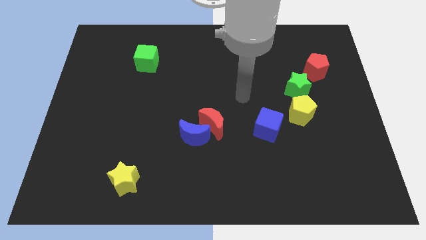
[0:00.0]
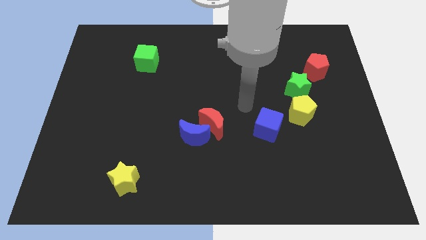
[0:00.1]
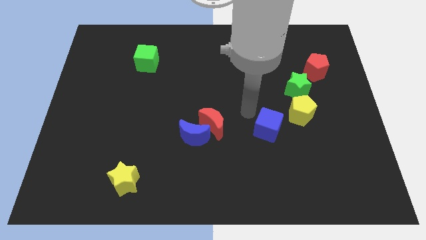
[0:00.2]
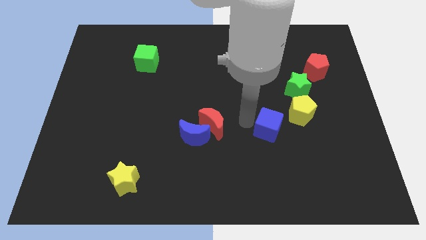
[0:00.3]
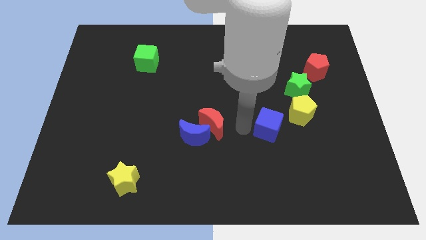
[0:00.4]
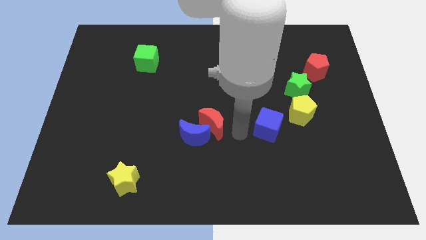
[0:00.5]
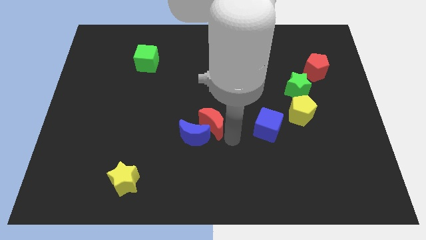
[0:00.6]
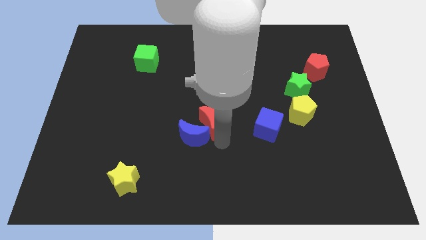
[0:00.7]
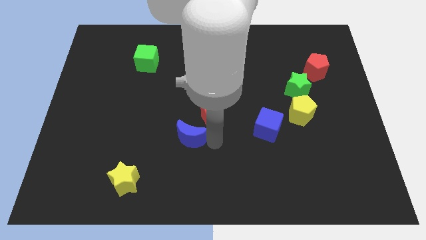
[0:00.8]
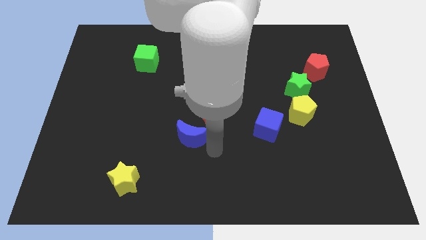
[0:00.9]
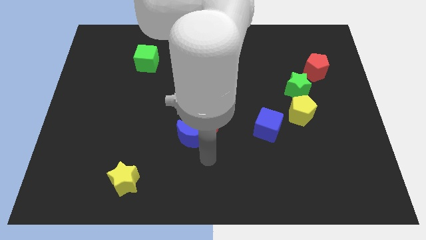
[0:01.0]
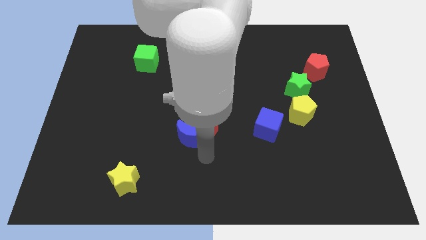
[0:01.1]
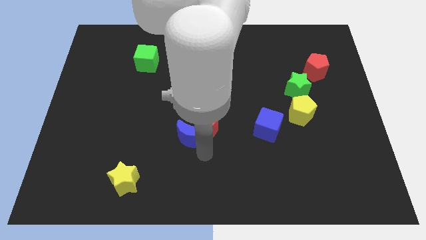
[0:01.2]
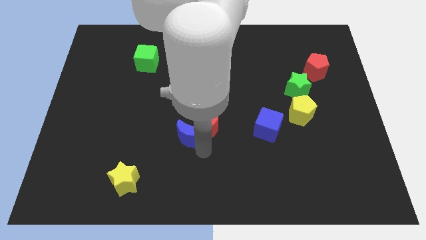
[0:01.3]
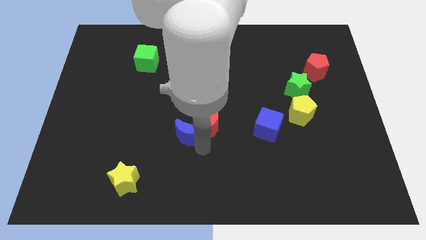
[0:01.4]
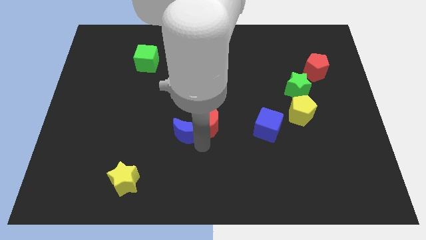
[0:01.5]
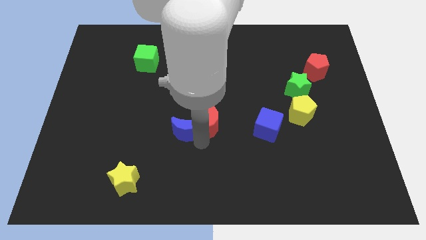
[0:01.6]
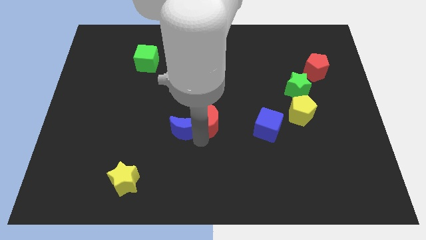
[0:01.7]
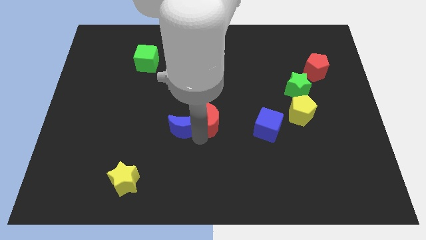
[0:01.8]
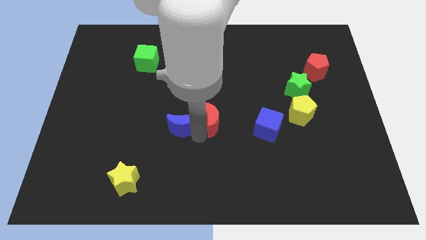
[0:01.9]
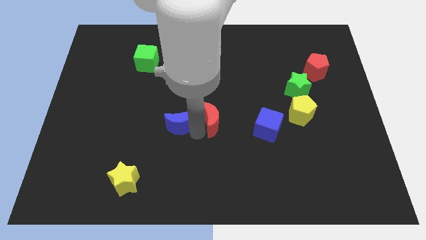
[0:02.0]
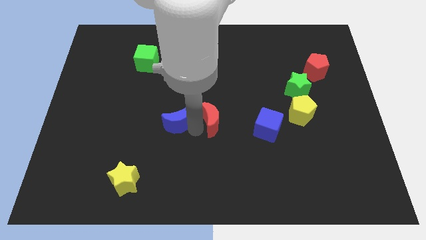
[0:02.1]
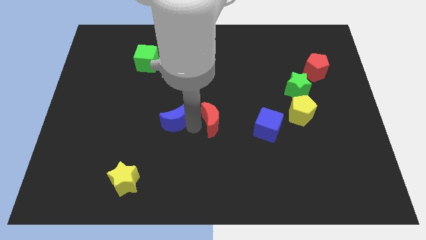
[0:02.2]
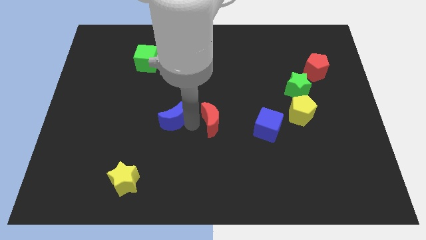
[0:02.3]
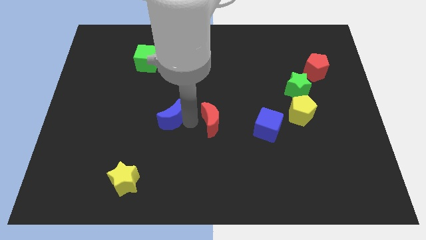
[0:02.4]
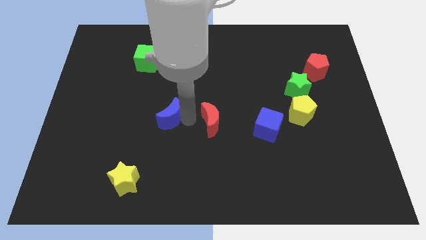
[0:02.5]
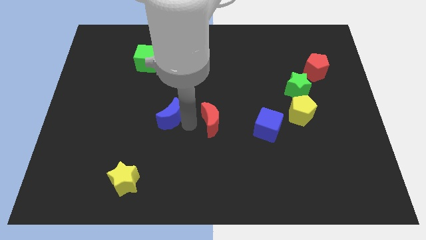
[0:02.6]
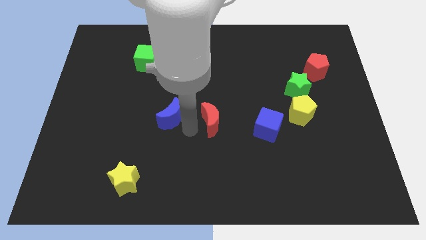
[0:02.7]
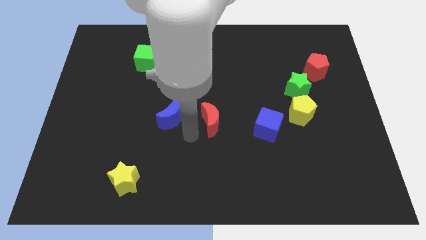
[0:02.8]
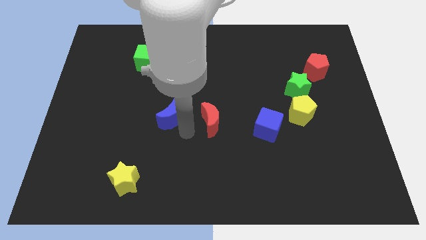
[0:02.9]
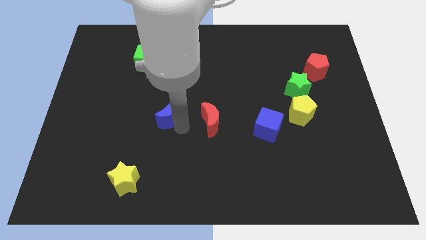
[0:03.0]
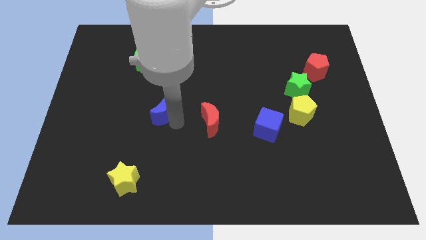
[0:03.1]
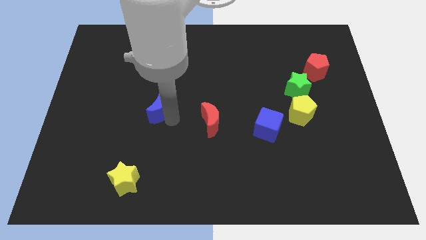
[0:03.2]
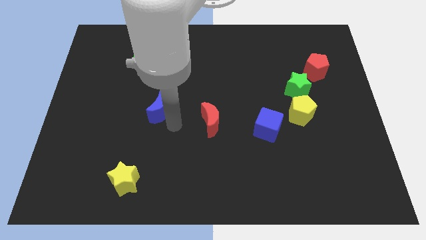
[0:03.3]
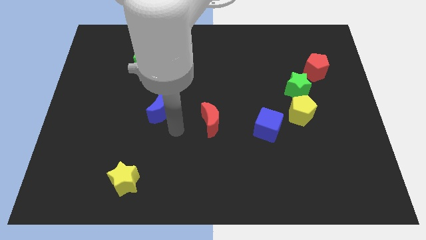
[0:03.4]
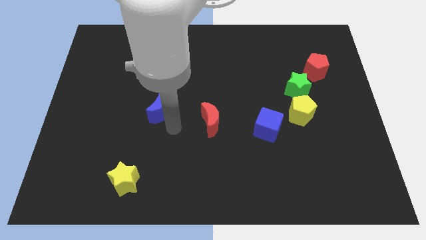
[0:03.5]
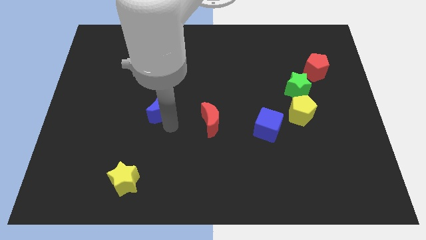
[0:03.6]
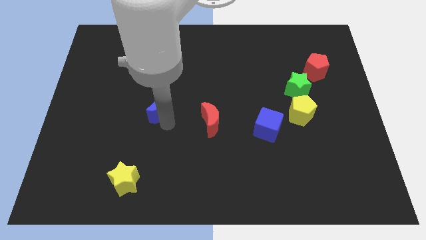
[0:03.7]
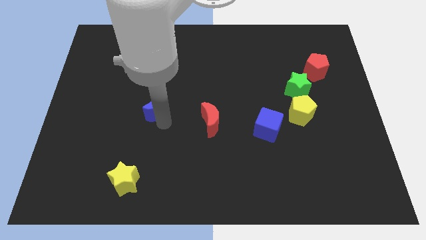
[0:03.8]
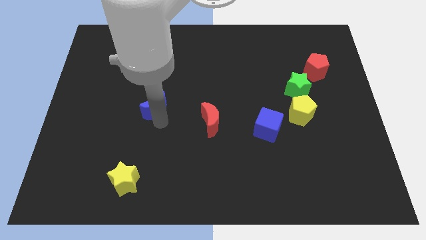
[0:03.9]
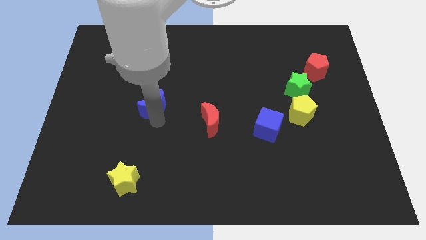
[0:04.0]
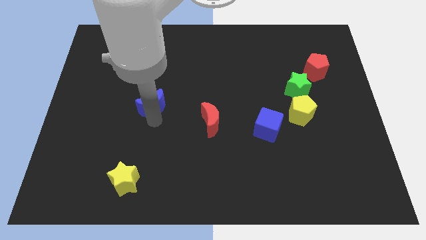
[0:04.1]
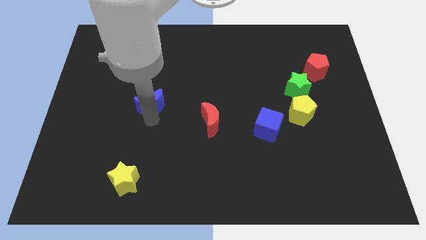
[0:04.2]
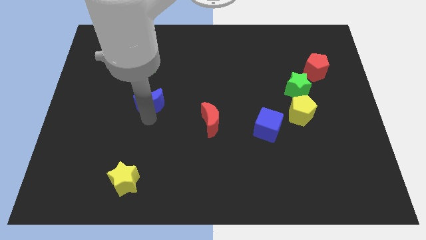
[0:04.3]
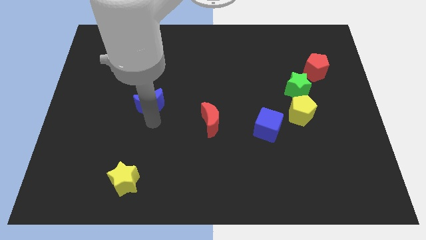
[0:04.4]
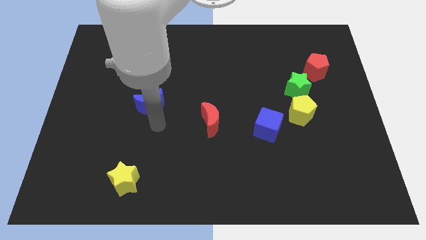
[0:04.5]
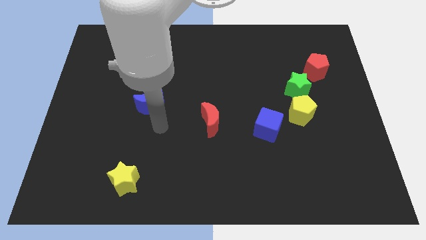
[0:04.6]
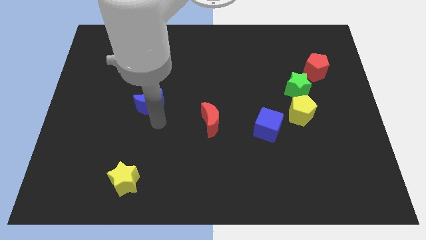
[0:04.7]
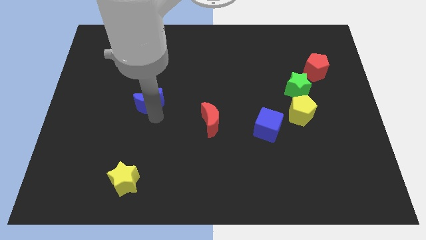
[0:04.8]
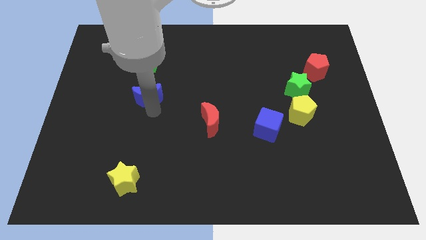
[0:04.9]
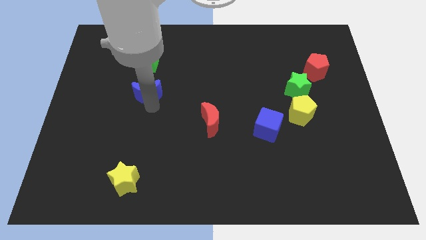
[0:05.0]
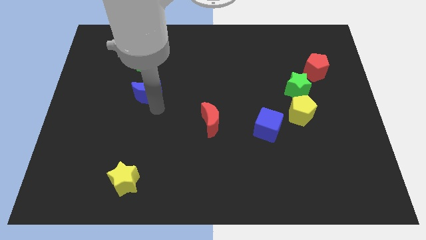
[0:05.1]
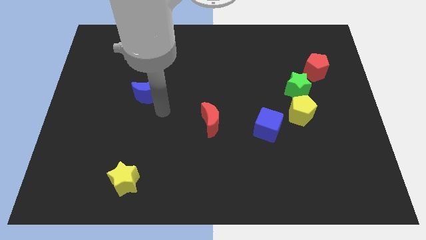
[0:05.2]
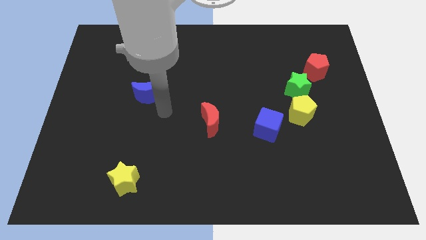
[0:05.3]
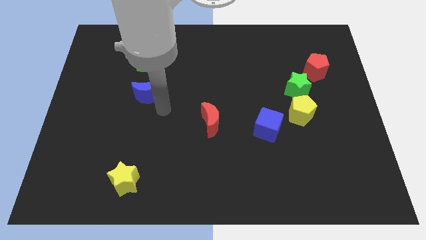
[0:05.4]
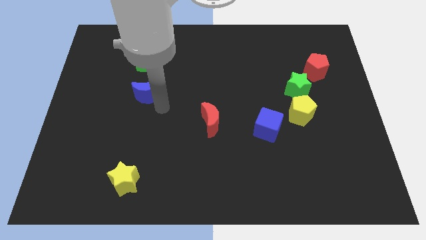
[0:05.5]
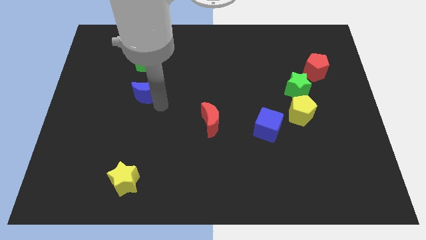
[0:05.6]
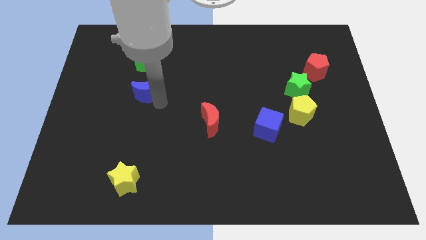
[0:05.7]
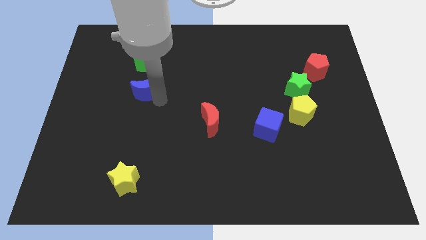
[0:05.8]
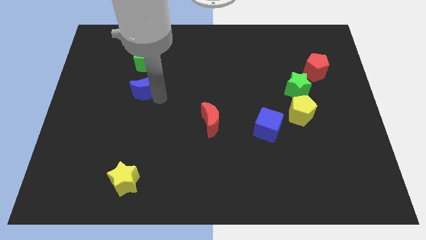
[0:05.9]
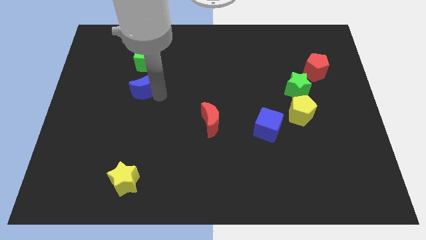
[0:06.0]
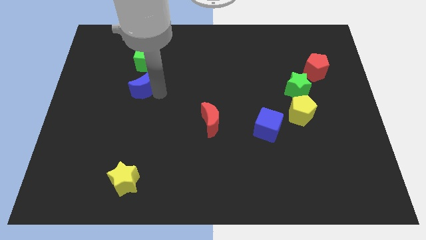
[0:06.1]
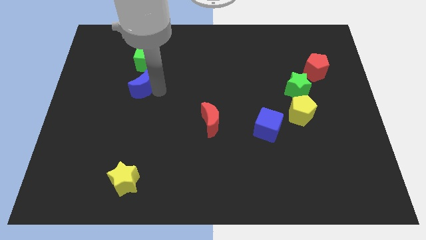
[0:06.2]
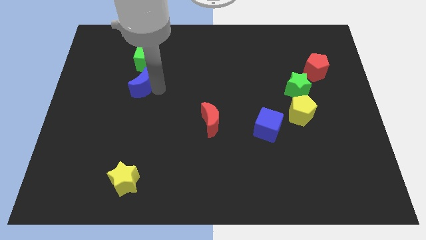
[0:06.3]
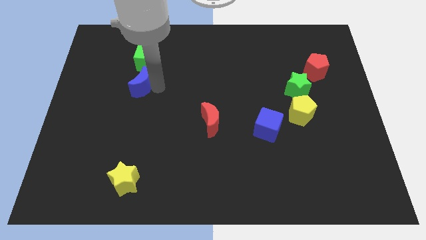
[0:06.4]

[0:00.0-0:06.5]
move the blue moon diagonally upwards and left

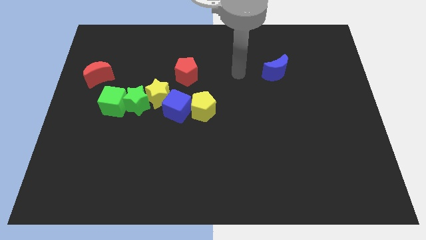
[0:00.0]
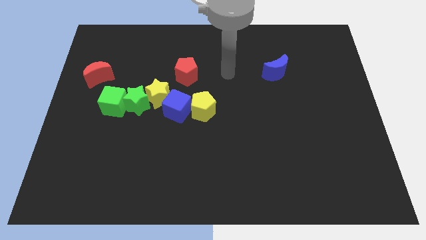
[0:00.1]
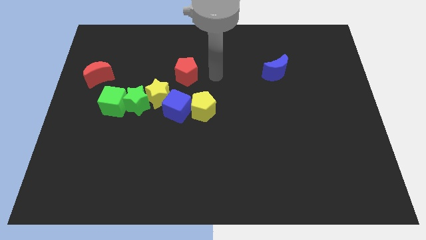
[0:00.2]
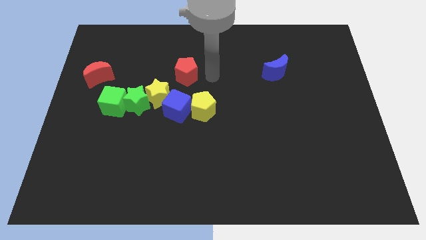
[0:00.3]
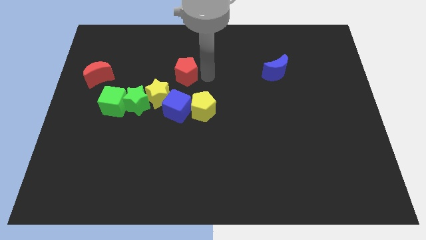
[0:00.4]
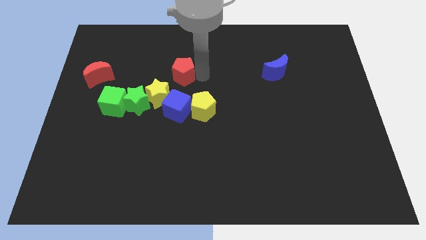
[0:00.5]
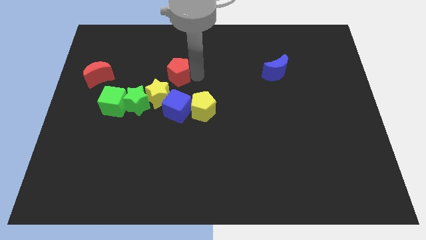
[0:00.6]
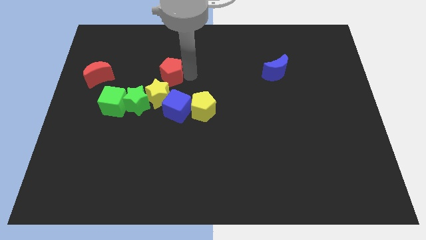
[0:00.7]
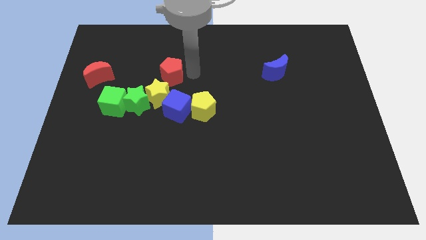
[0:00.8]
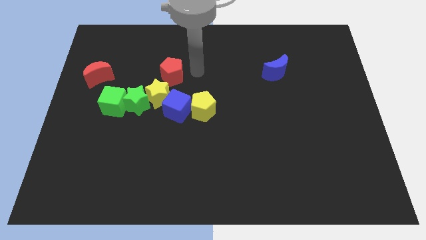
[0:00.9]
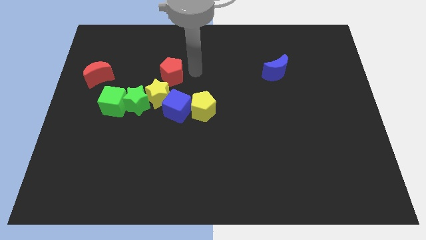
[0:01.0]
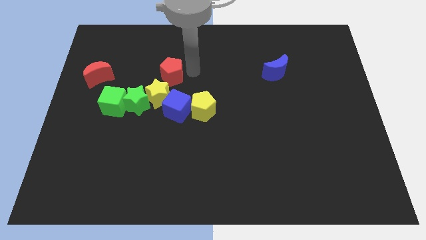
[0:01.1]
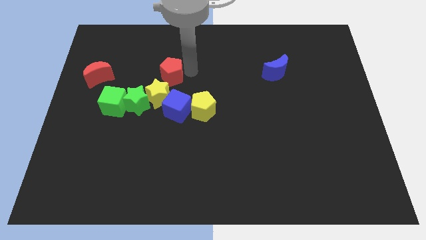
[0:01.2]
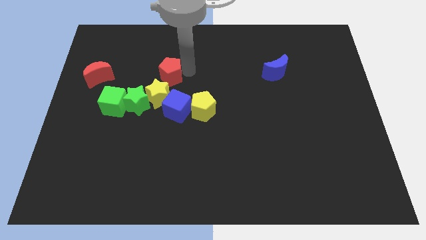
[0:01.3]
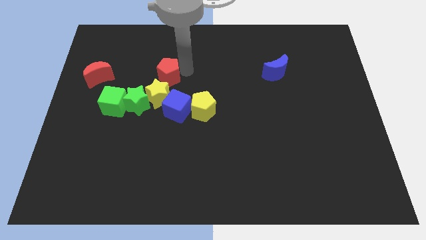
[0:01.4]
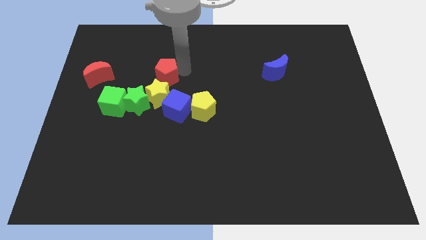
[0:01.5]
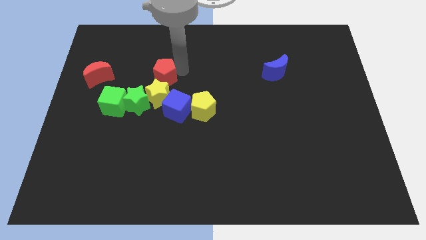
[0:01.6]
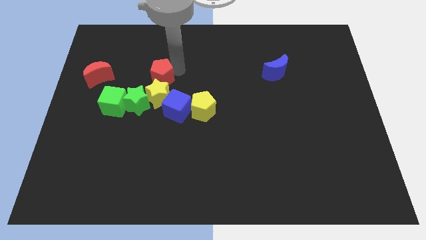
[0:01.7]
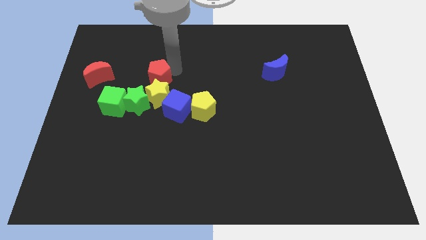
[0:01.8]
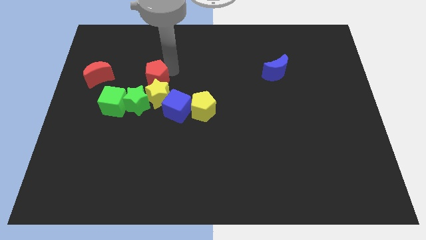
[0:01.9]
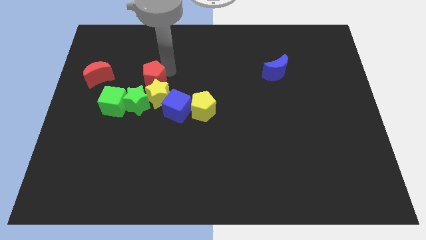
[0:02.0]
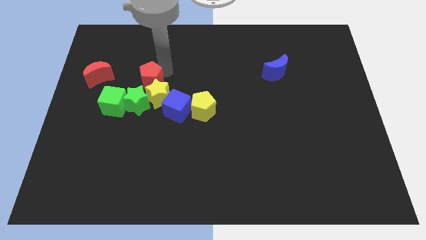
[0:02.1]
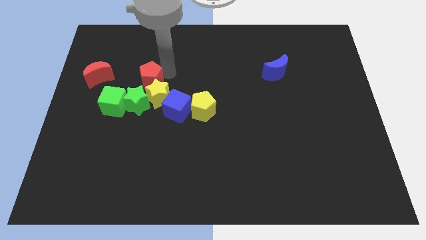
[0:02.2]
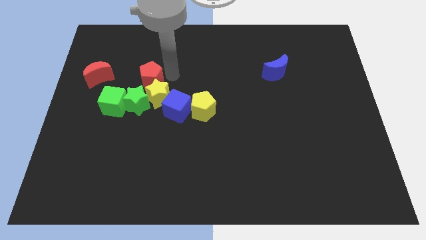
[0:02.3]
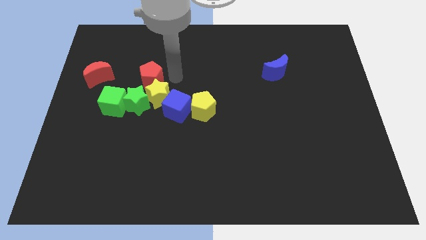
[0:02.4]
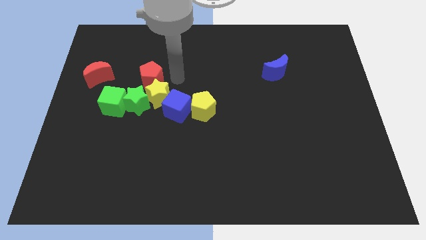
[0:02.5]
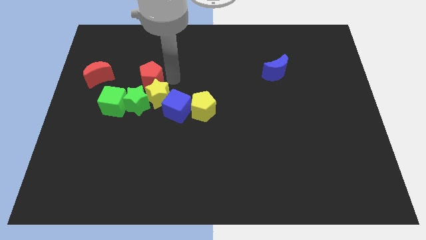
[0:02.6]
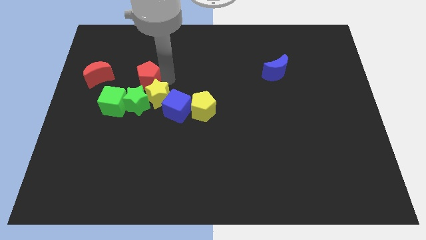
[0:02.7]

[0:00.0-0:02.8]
move the red pentagon down and then to the left slightly
